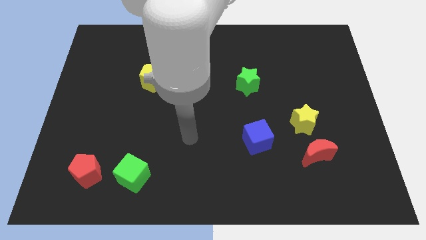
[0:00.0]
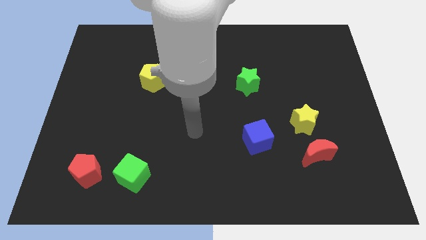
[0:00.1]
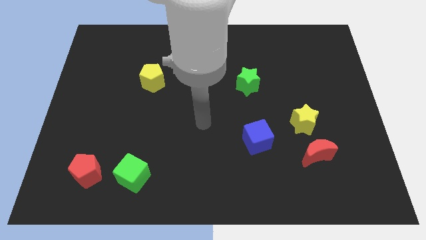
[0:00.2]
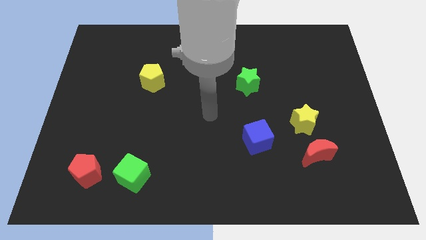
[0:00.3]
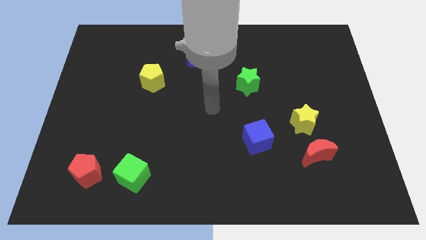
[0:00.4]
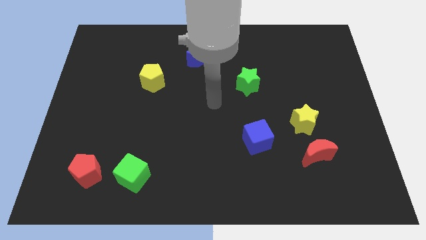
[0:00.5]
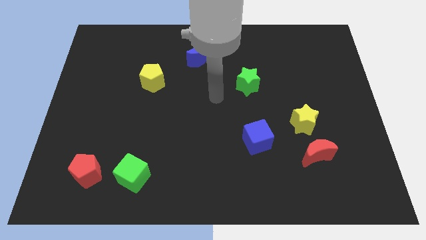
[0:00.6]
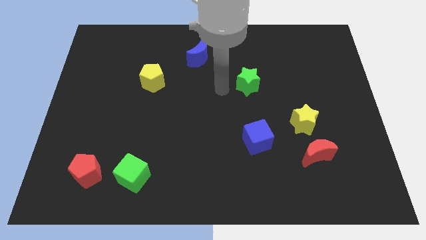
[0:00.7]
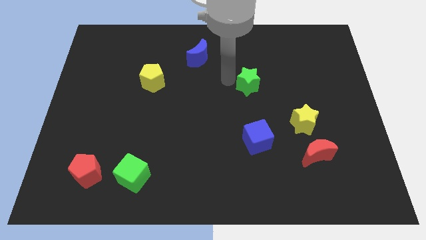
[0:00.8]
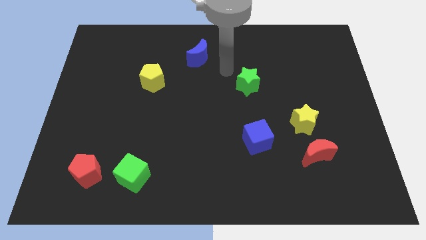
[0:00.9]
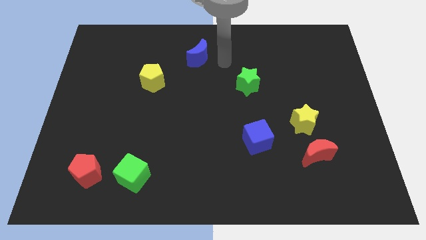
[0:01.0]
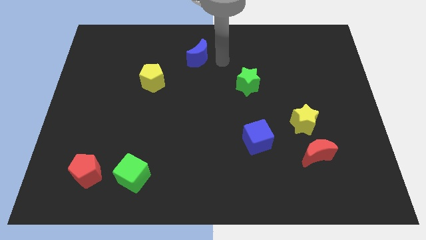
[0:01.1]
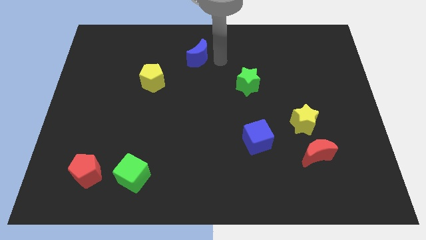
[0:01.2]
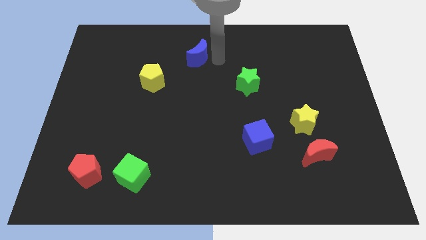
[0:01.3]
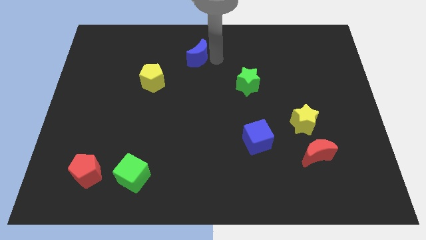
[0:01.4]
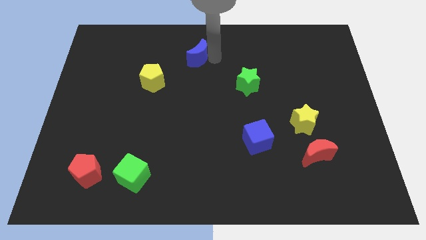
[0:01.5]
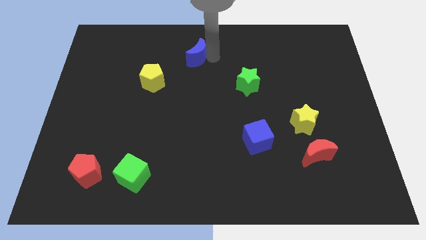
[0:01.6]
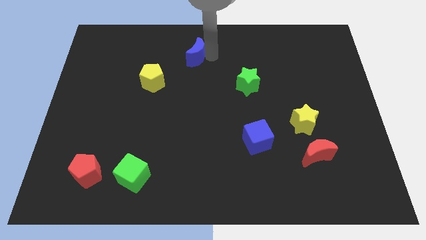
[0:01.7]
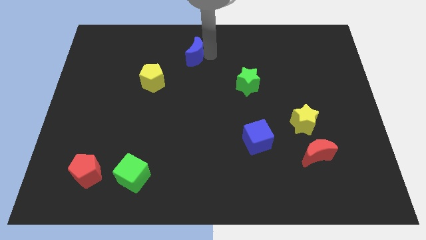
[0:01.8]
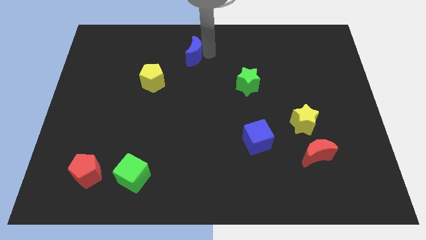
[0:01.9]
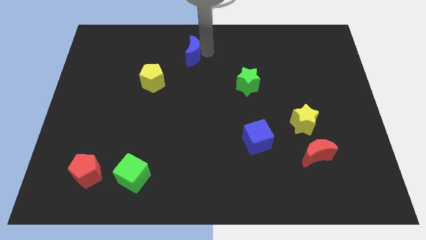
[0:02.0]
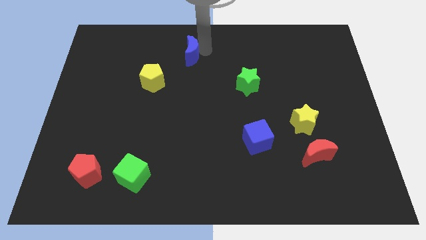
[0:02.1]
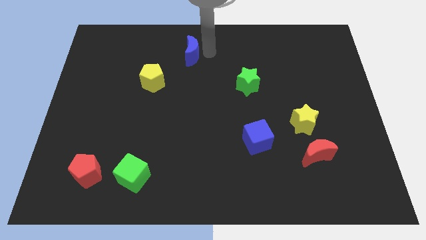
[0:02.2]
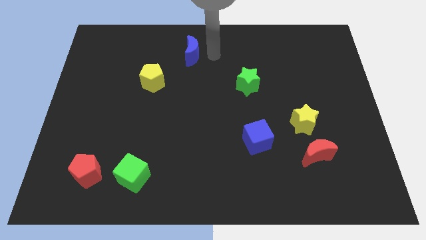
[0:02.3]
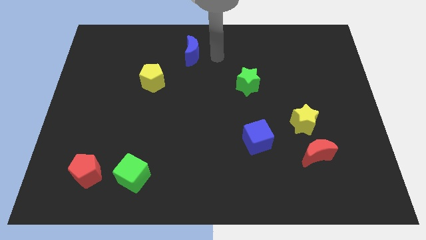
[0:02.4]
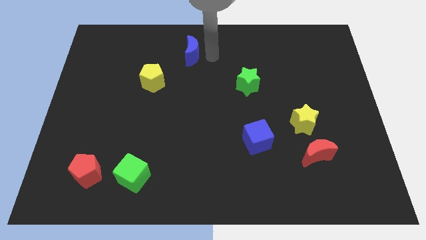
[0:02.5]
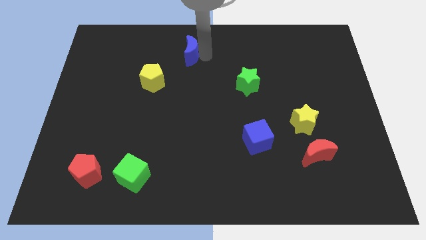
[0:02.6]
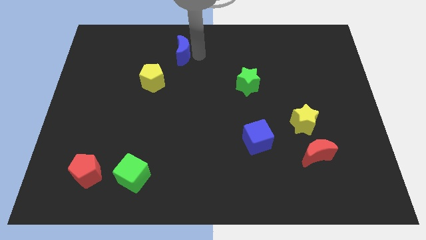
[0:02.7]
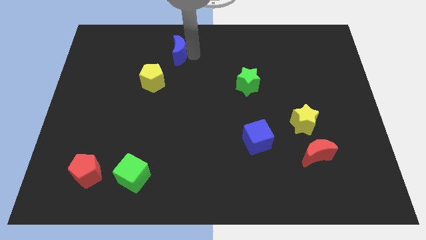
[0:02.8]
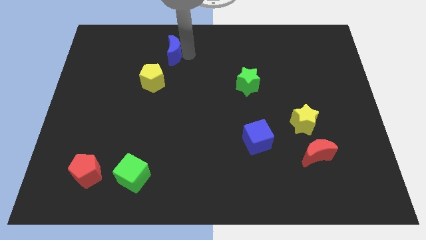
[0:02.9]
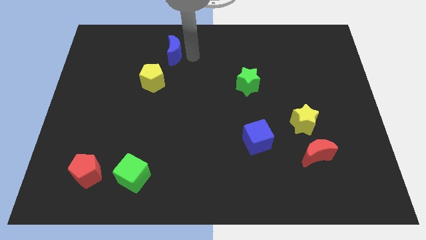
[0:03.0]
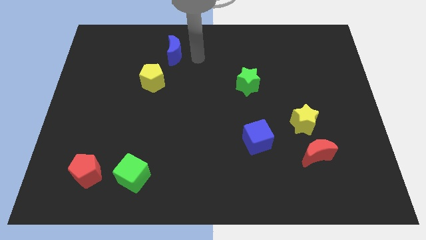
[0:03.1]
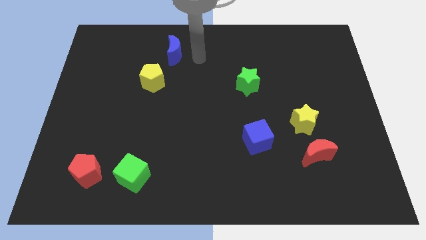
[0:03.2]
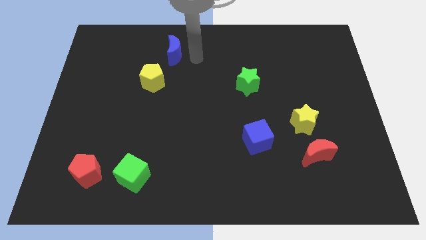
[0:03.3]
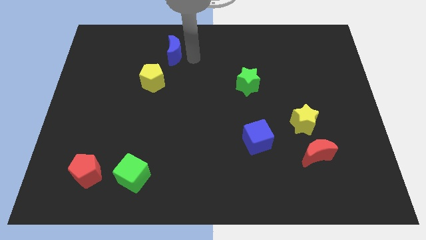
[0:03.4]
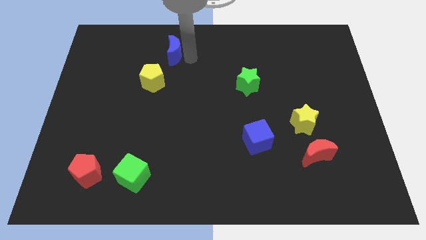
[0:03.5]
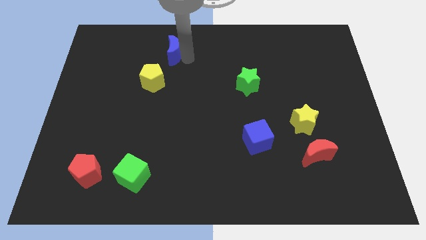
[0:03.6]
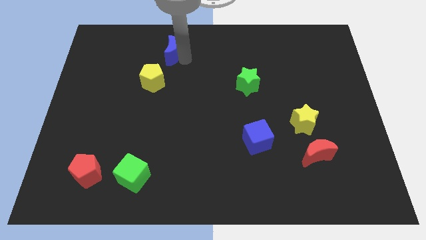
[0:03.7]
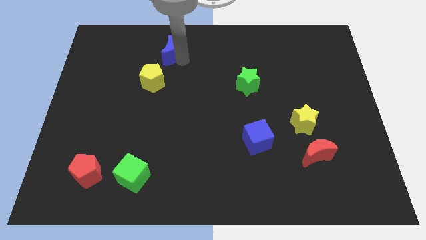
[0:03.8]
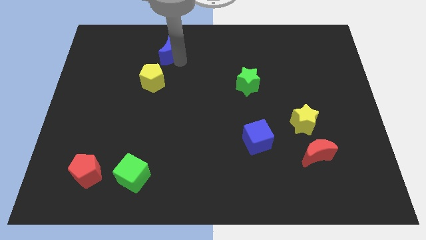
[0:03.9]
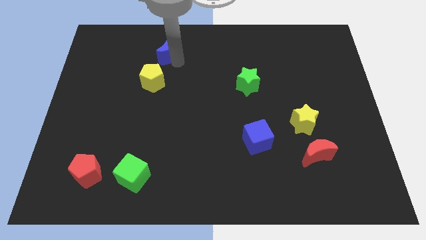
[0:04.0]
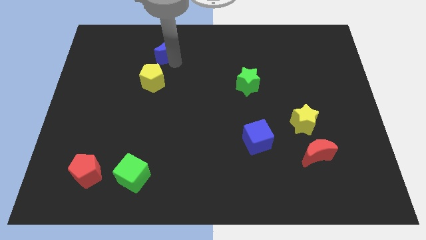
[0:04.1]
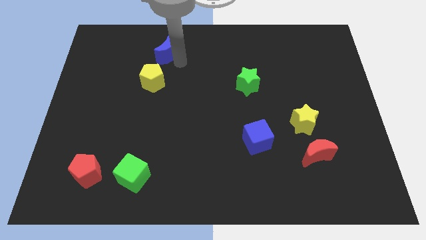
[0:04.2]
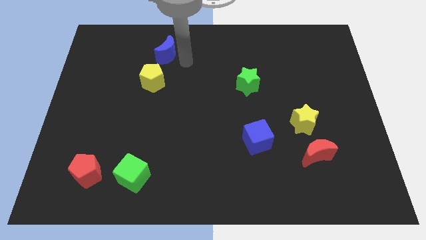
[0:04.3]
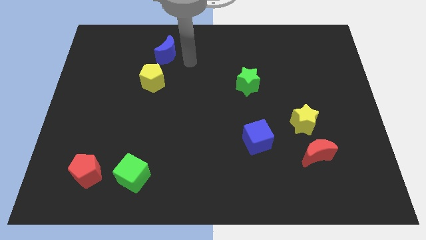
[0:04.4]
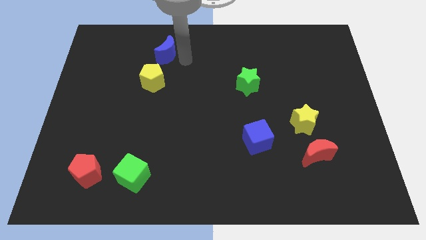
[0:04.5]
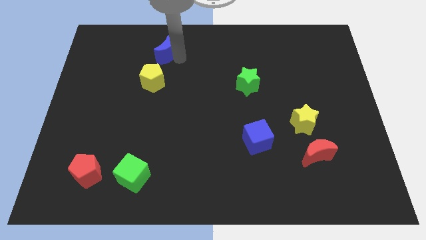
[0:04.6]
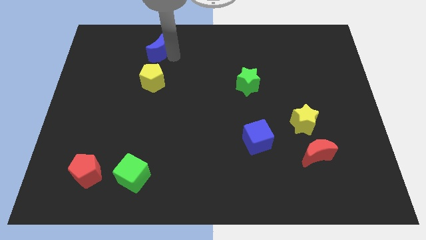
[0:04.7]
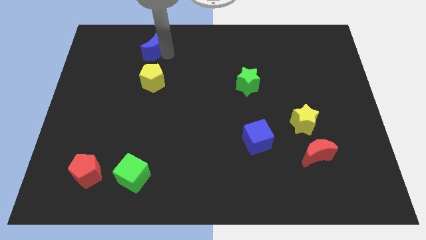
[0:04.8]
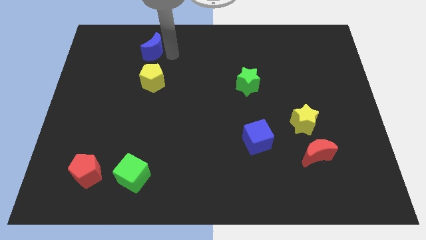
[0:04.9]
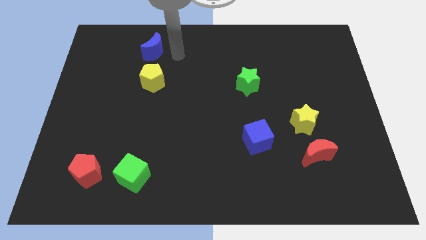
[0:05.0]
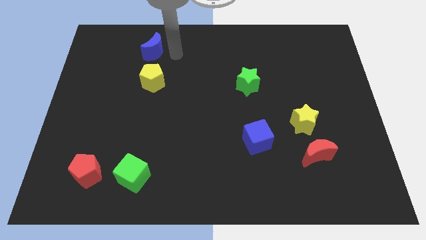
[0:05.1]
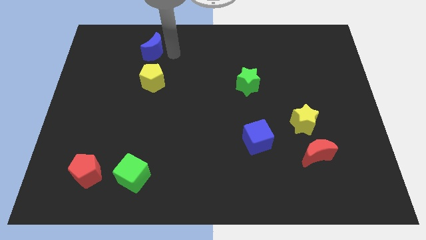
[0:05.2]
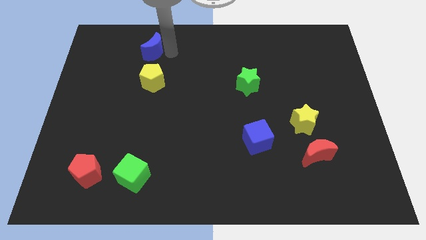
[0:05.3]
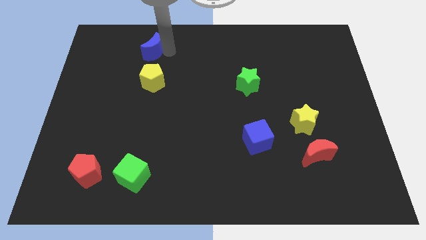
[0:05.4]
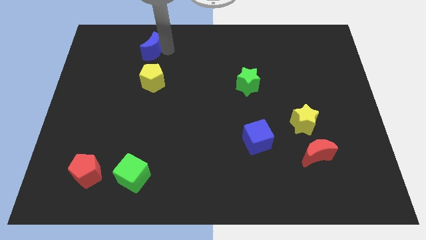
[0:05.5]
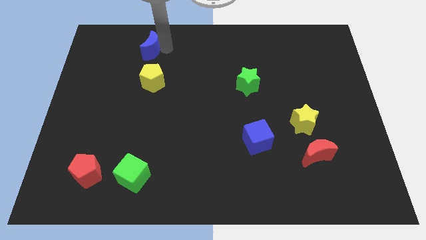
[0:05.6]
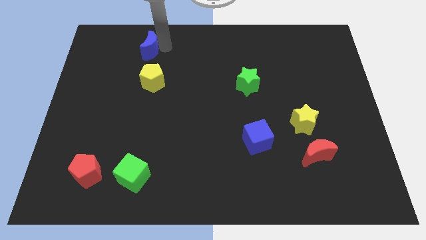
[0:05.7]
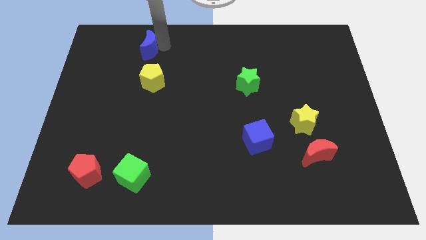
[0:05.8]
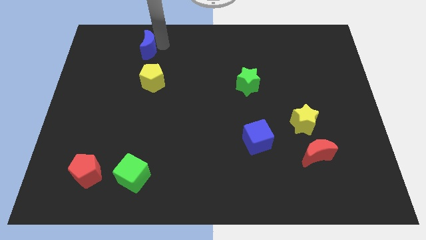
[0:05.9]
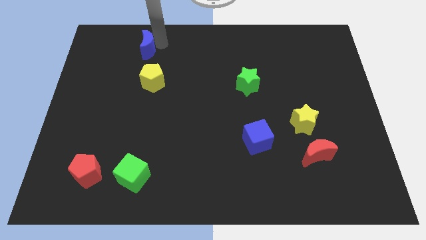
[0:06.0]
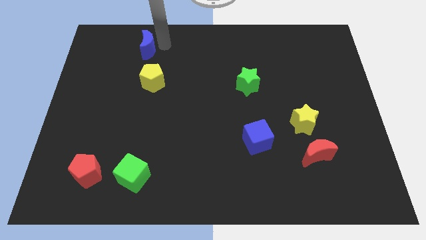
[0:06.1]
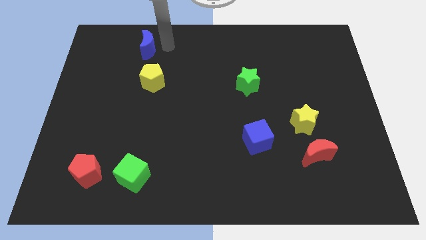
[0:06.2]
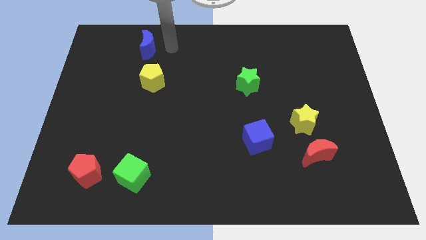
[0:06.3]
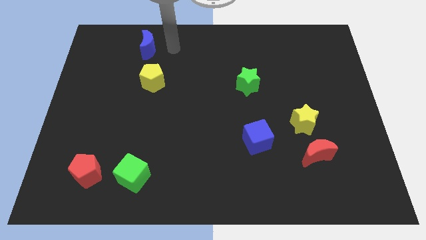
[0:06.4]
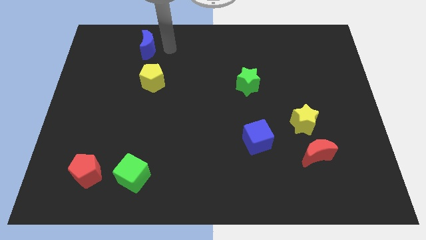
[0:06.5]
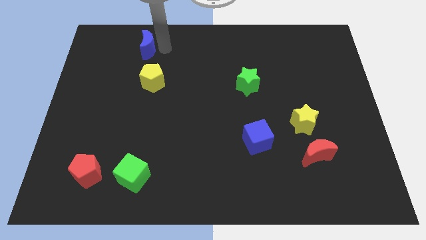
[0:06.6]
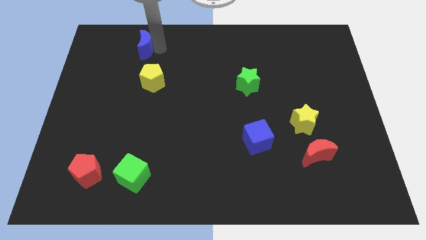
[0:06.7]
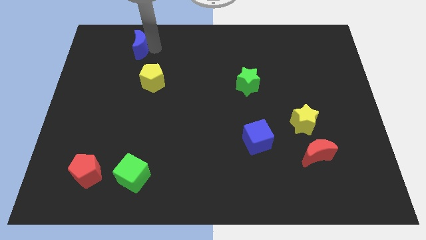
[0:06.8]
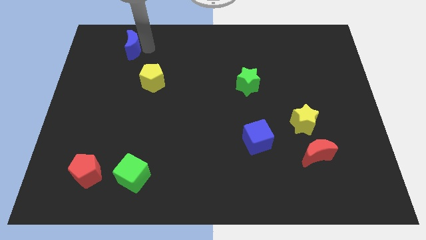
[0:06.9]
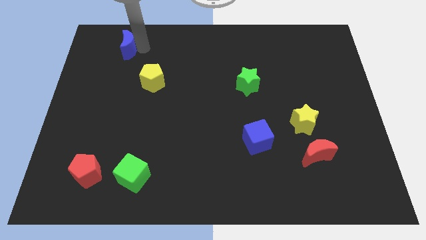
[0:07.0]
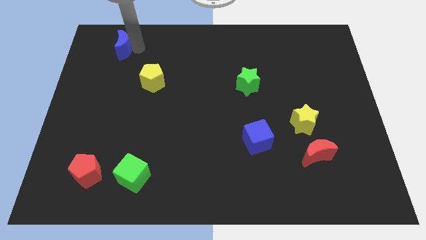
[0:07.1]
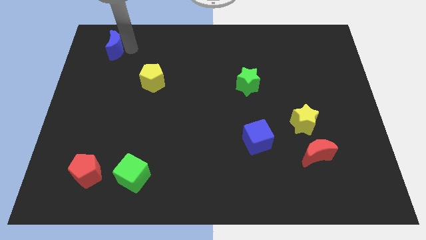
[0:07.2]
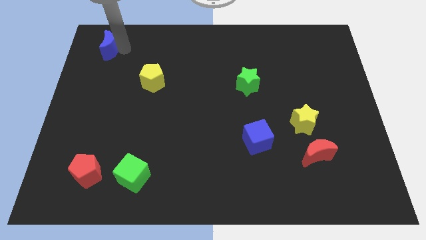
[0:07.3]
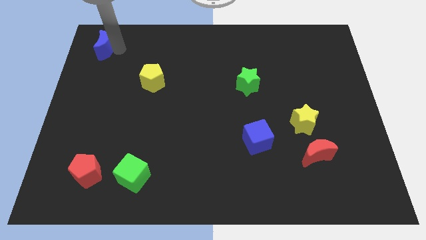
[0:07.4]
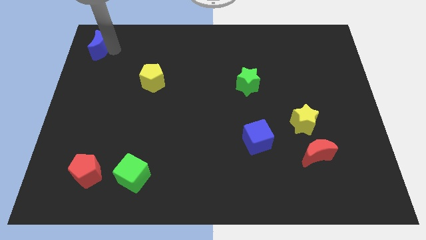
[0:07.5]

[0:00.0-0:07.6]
push the blue moon to the top left of the board
